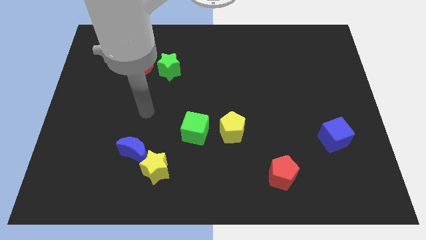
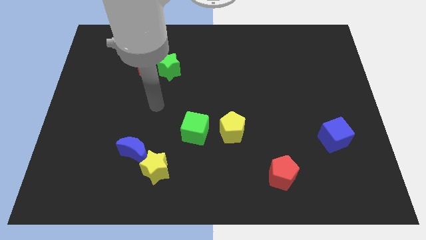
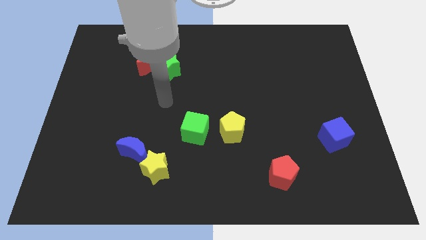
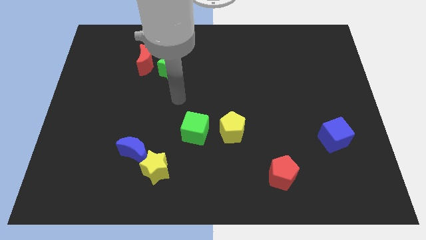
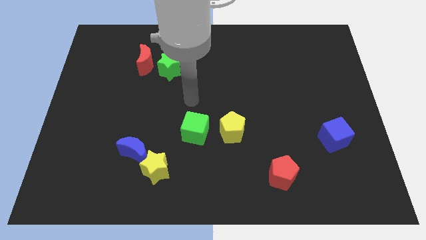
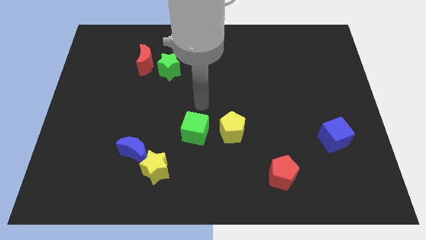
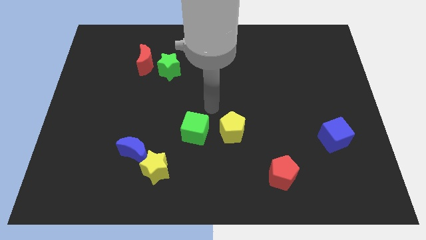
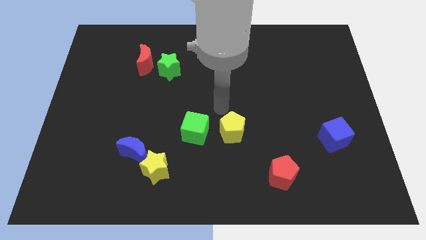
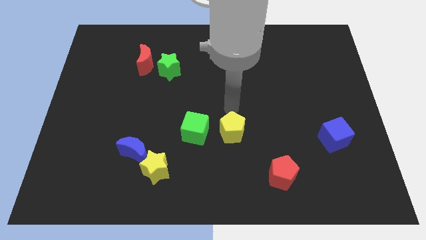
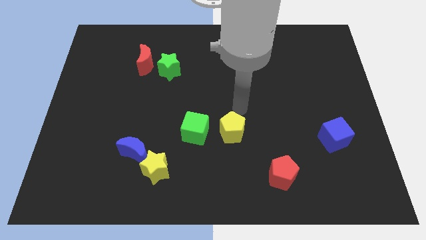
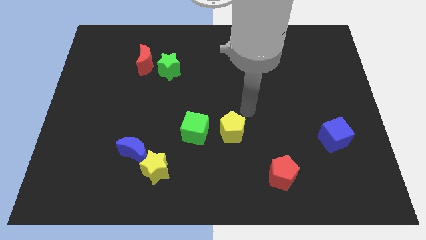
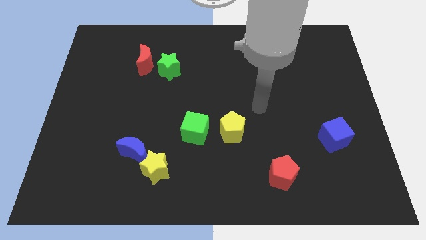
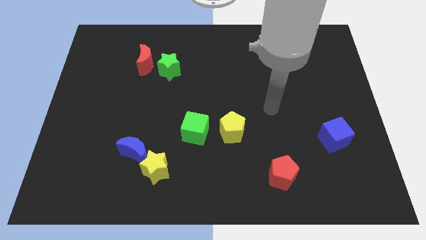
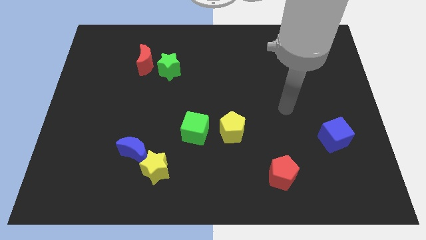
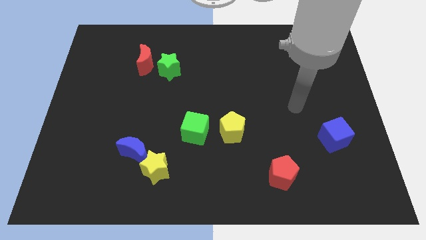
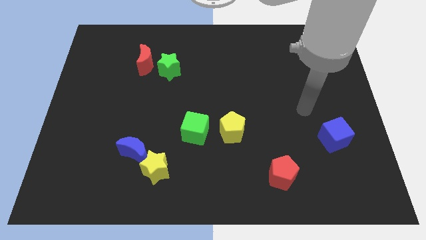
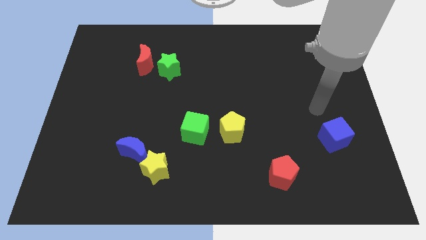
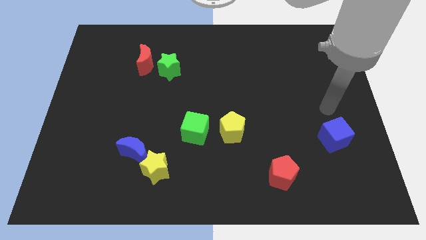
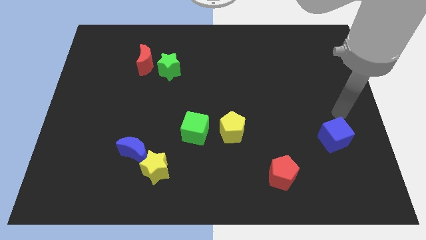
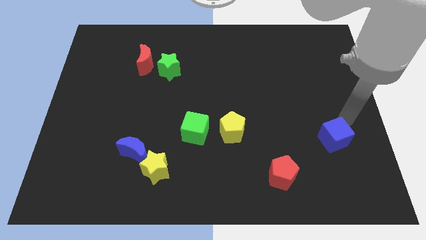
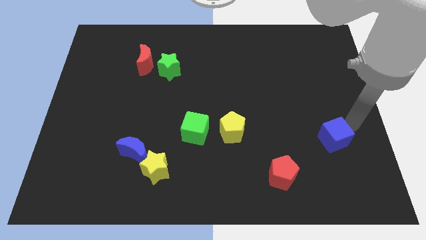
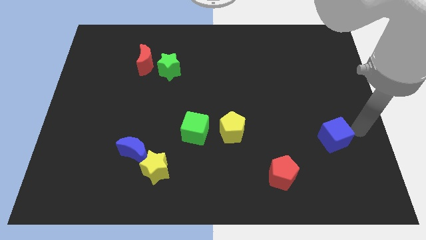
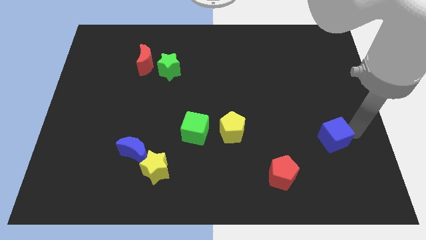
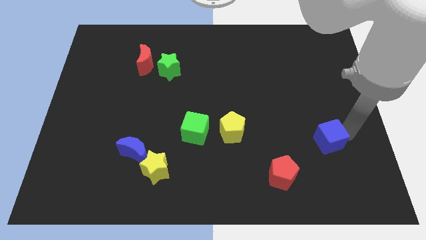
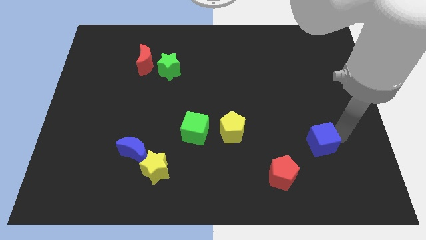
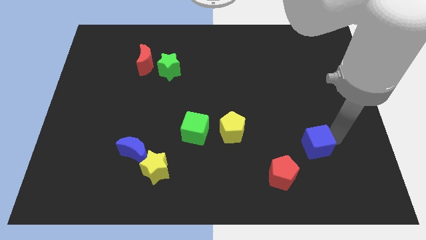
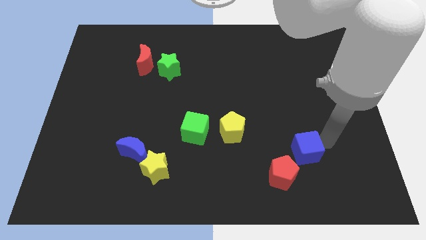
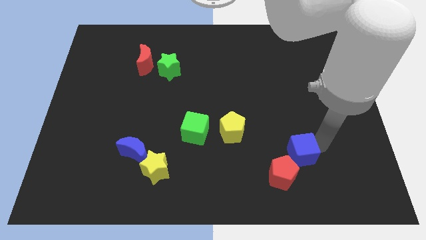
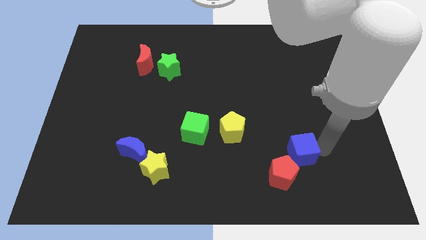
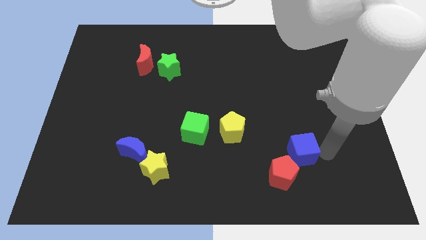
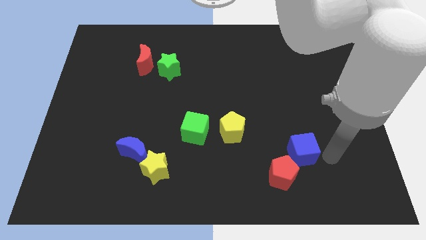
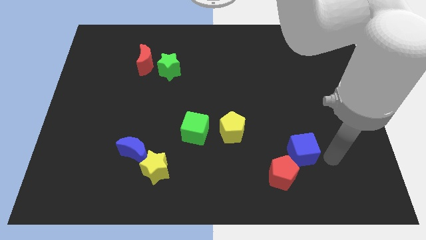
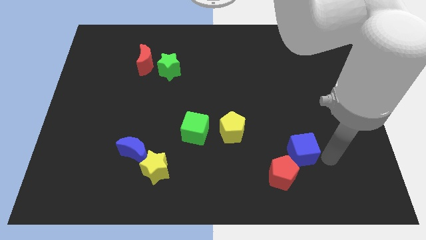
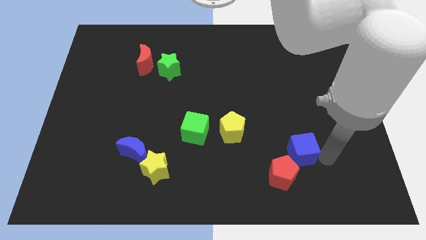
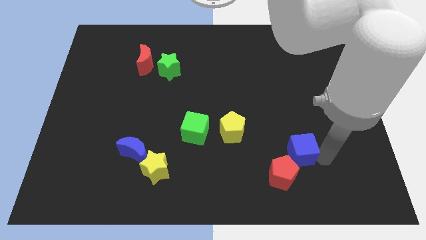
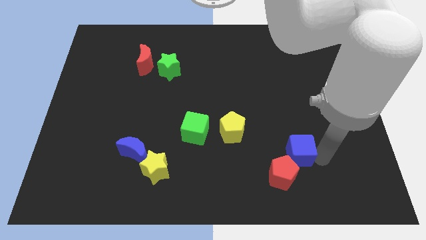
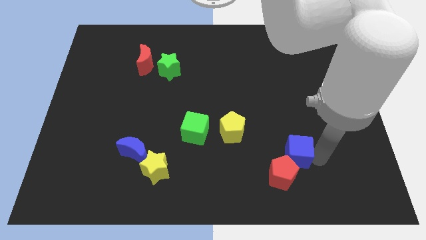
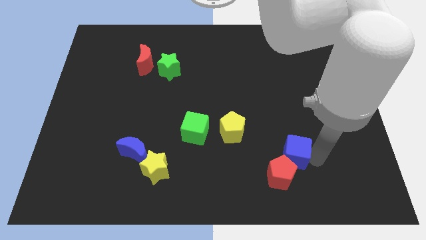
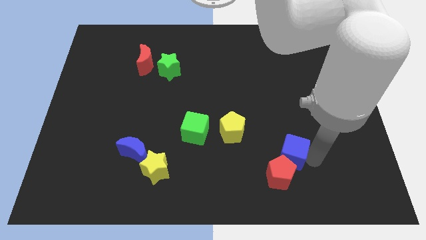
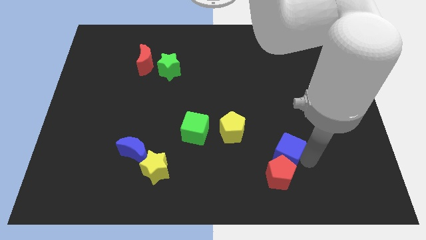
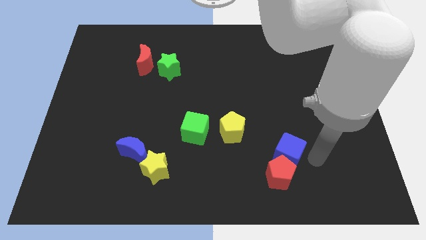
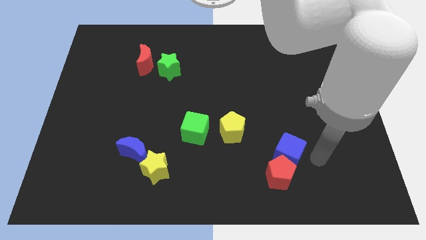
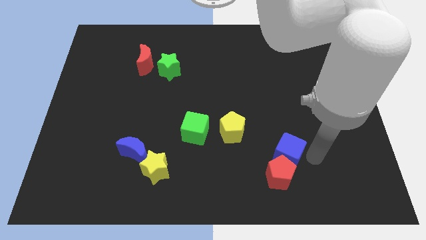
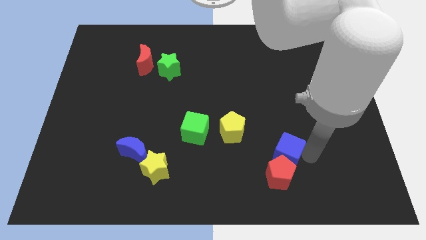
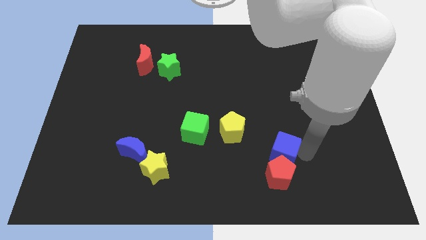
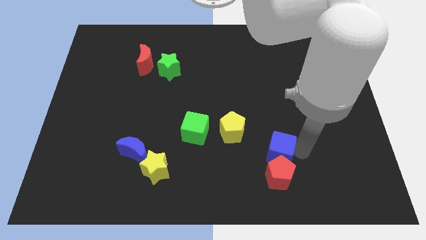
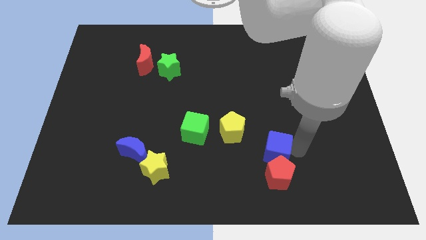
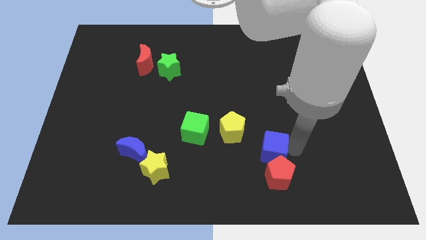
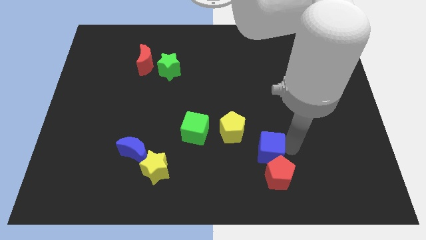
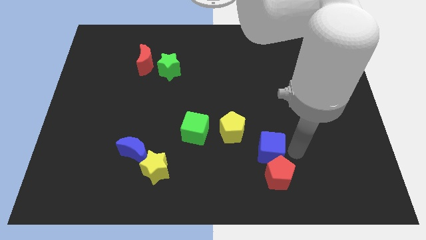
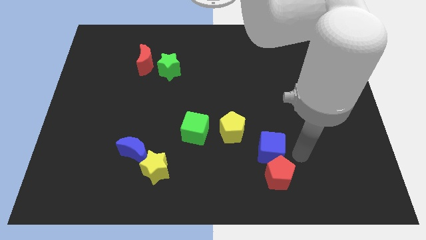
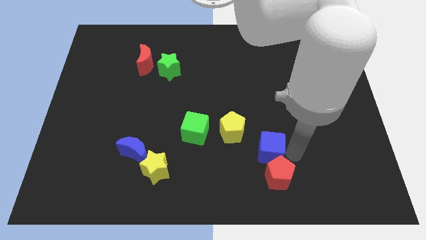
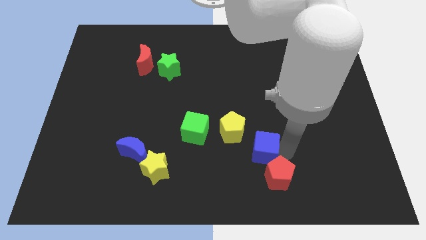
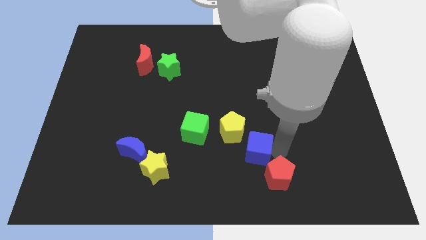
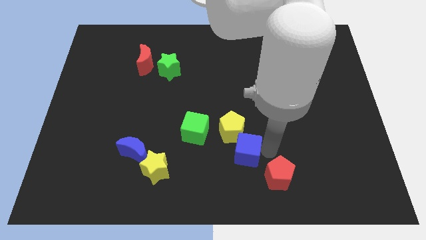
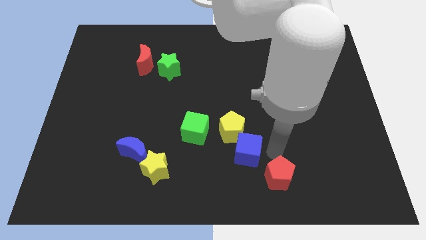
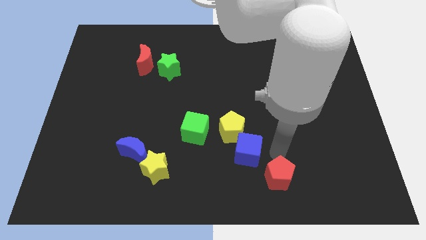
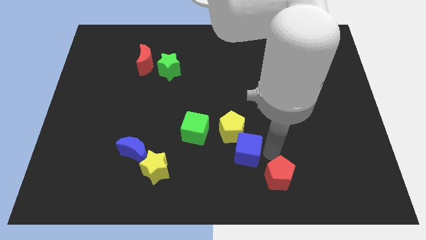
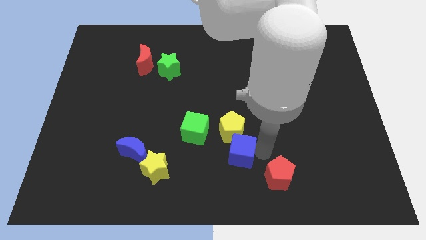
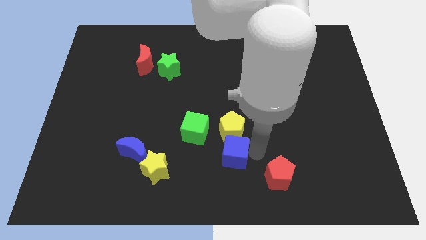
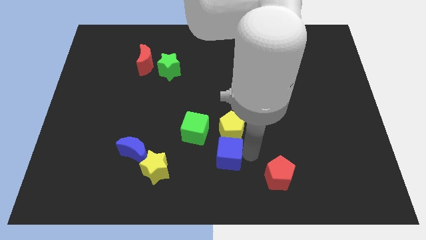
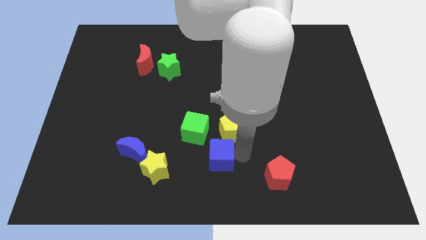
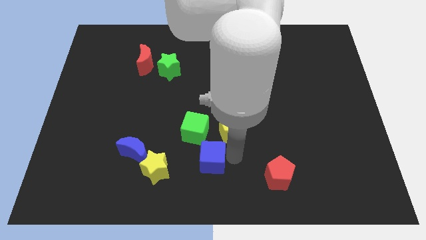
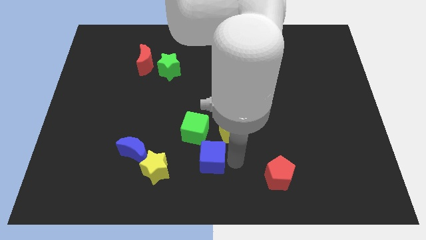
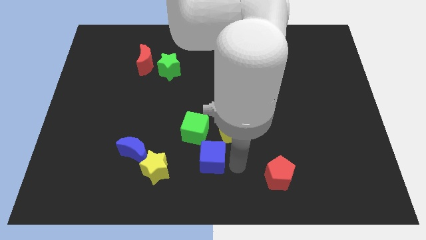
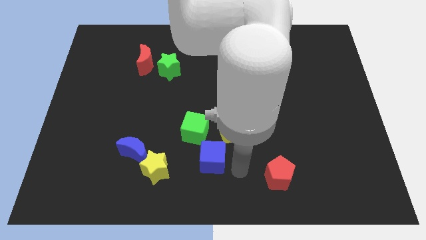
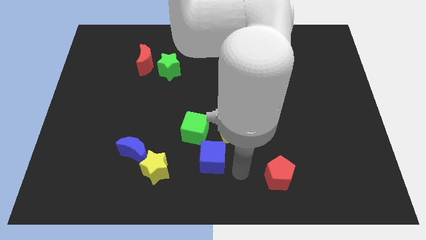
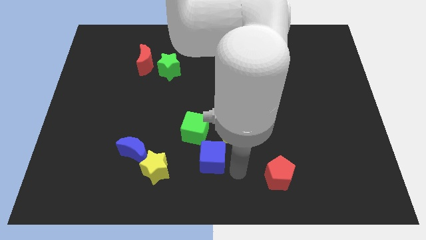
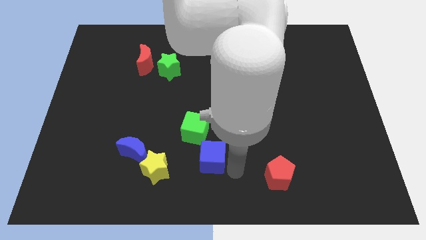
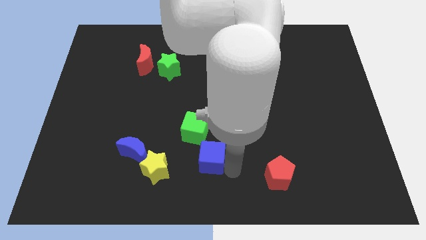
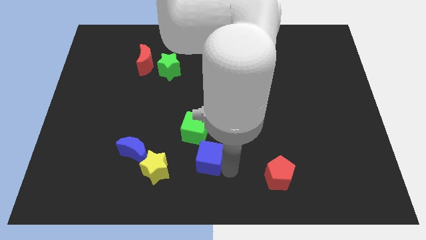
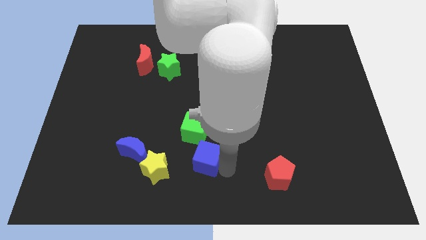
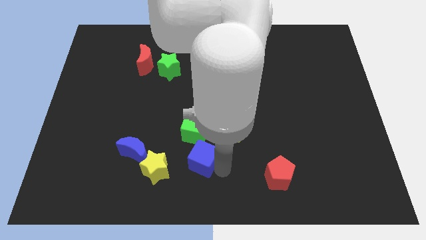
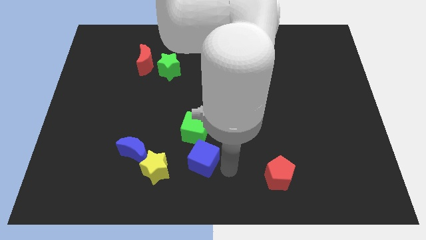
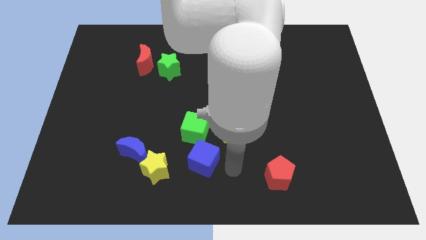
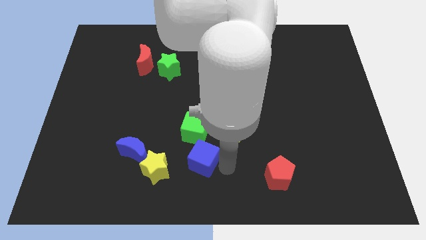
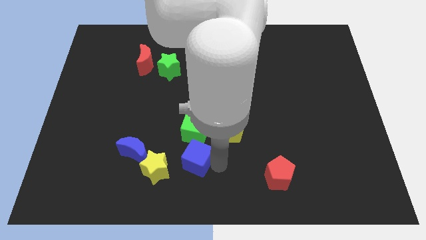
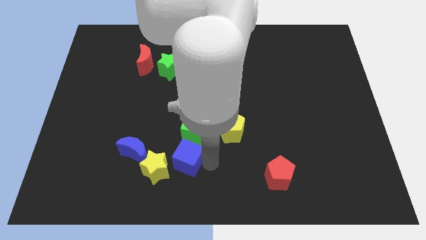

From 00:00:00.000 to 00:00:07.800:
move the blue cube to the bottom left of the green cube

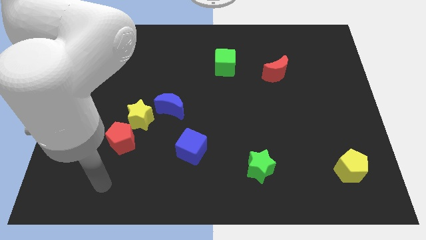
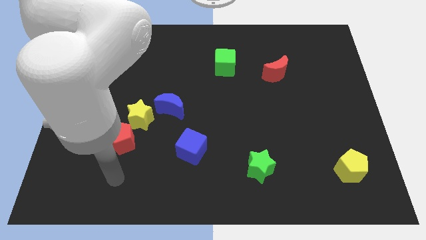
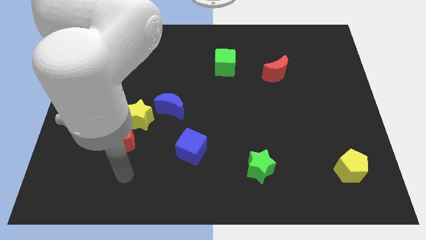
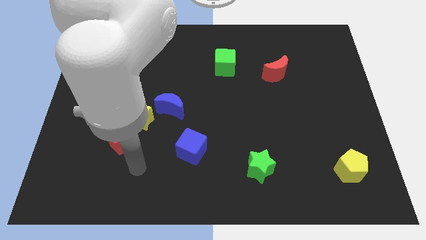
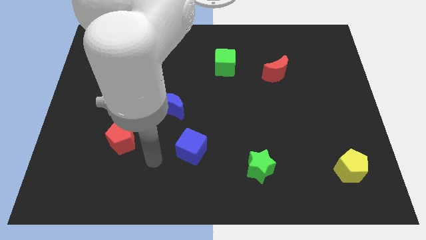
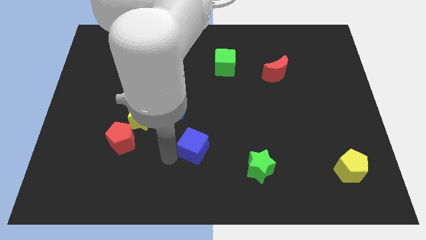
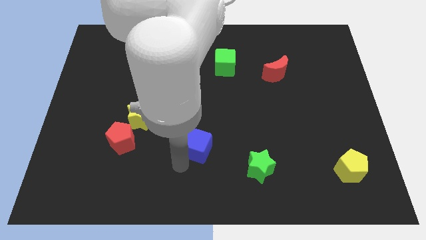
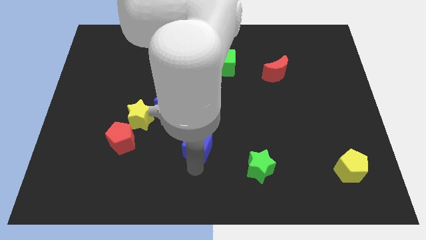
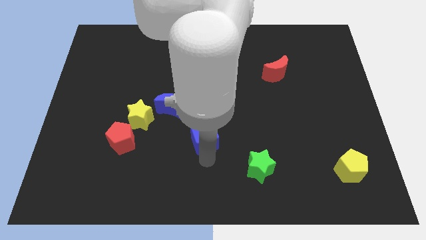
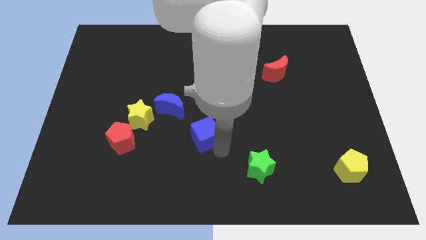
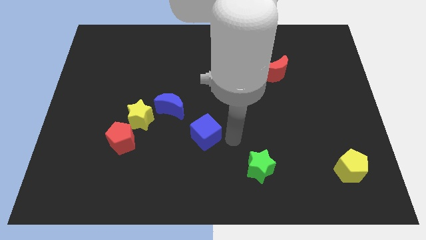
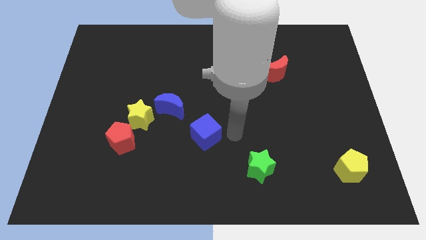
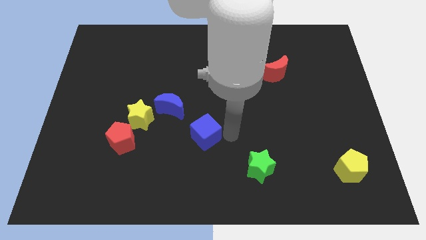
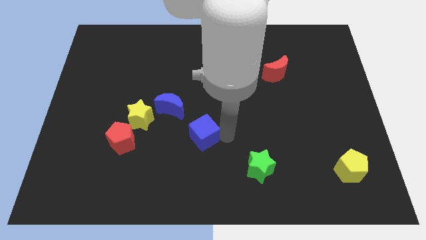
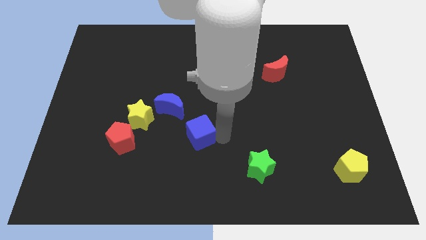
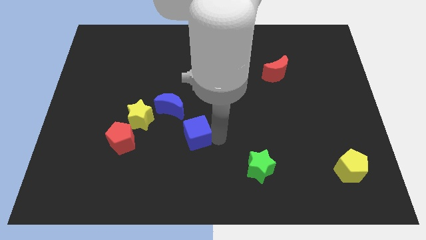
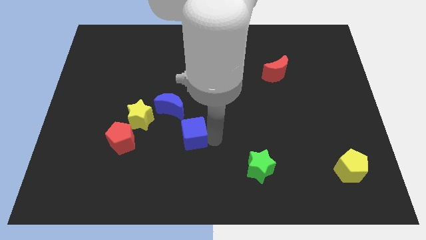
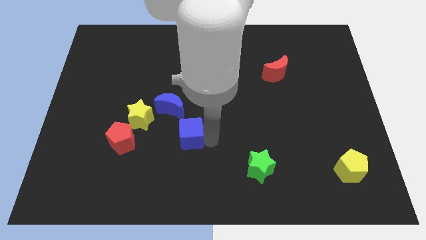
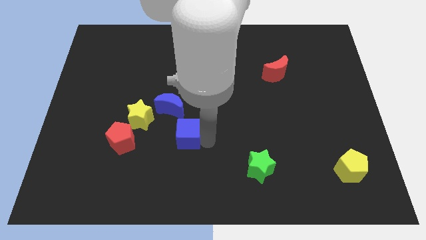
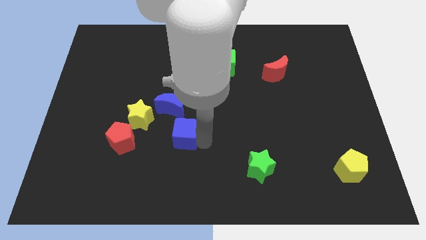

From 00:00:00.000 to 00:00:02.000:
push the blue cube diagonally down and to the right of the yellow star
